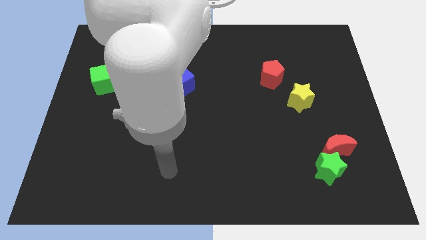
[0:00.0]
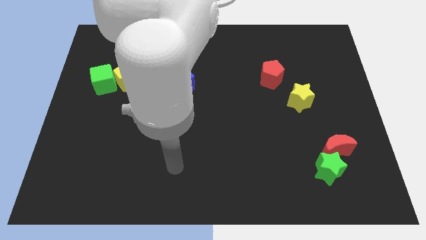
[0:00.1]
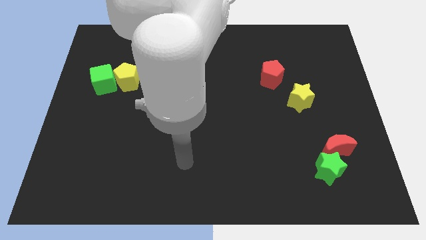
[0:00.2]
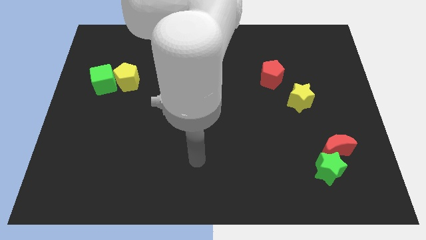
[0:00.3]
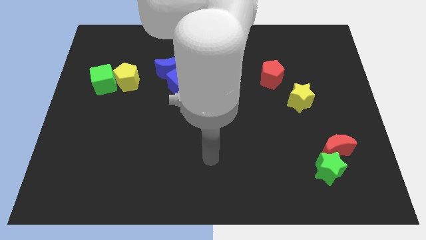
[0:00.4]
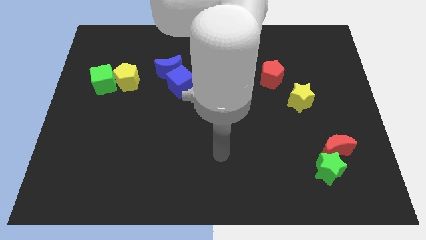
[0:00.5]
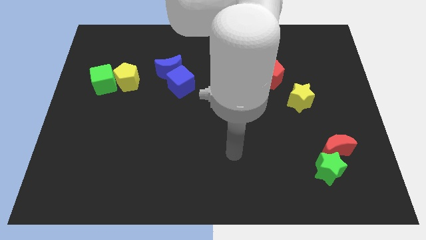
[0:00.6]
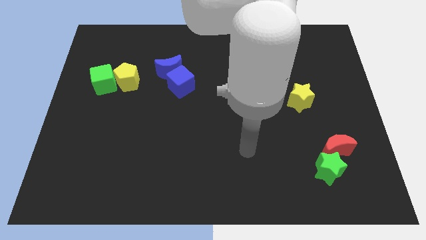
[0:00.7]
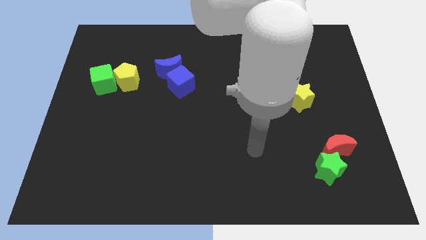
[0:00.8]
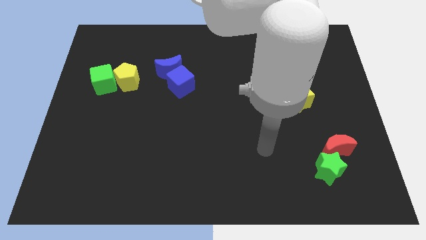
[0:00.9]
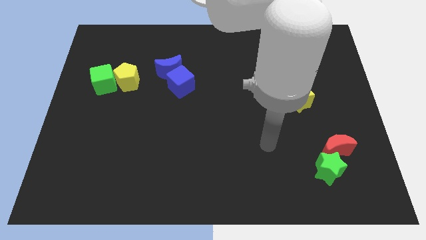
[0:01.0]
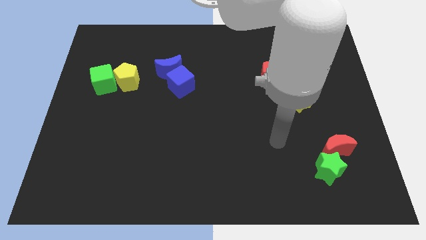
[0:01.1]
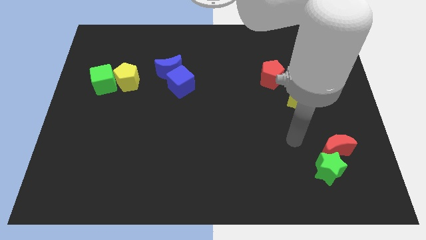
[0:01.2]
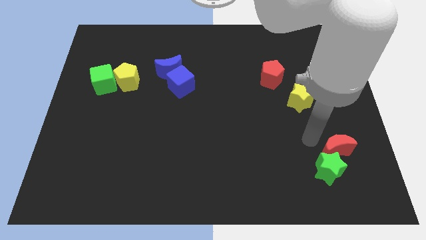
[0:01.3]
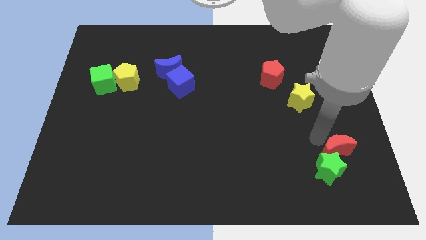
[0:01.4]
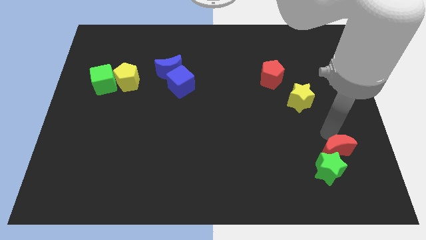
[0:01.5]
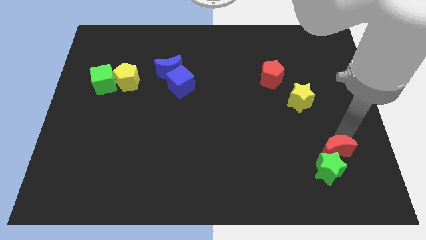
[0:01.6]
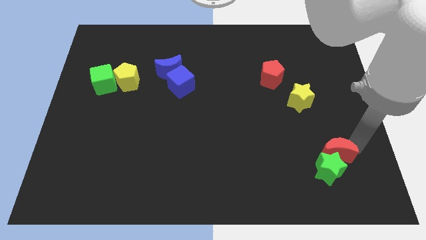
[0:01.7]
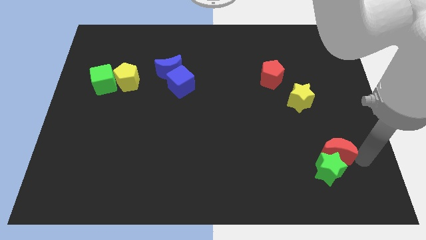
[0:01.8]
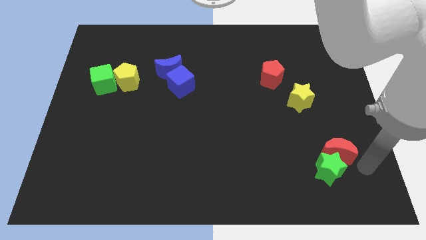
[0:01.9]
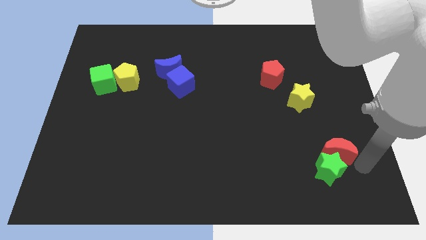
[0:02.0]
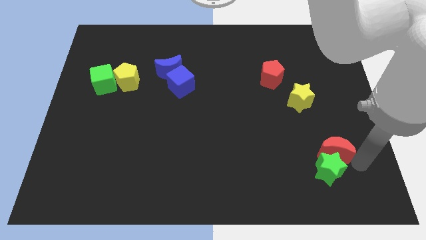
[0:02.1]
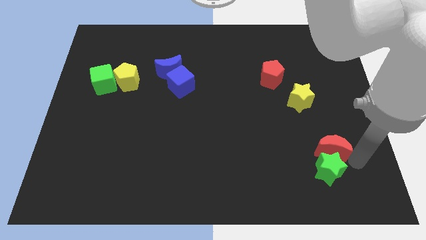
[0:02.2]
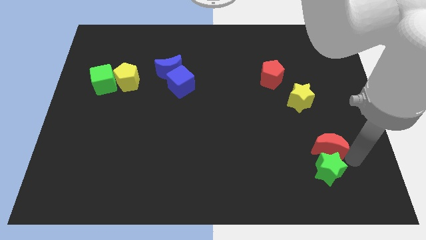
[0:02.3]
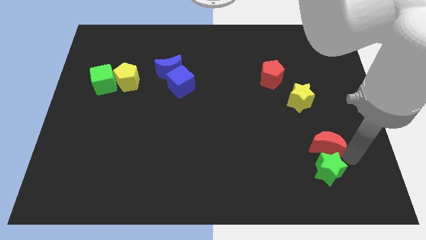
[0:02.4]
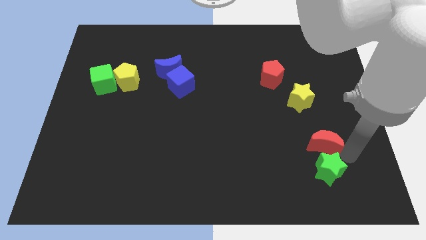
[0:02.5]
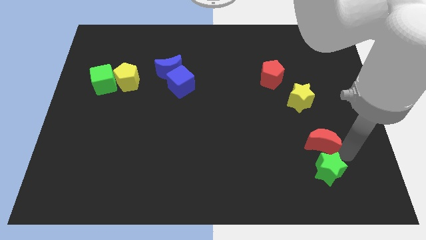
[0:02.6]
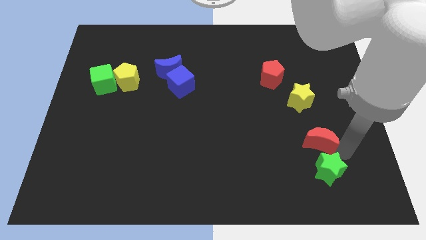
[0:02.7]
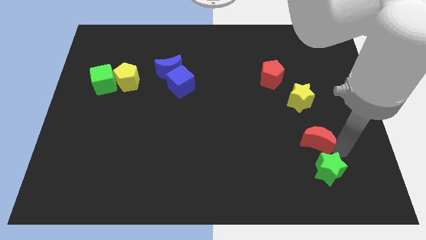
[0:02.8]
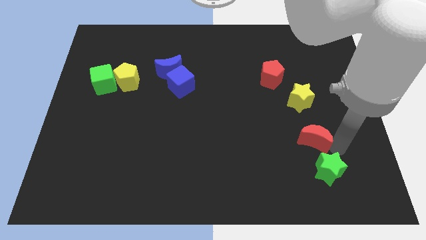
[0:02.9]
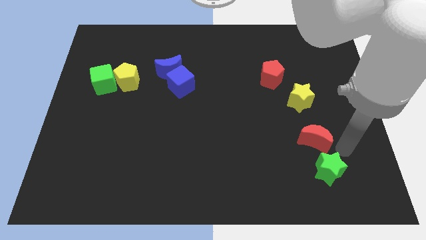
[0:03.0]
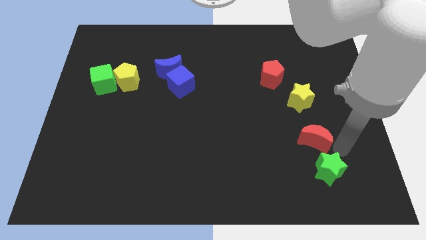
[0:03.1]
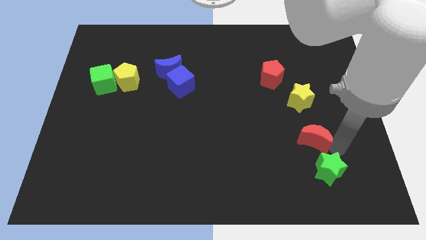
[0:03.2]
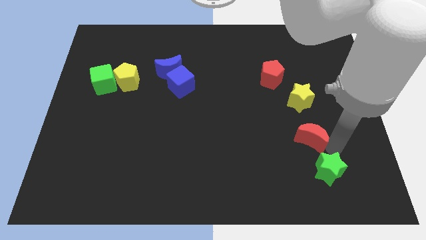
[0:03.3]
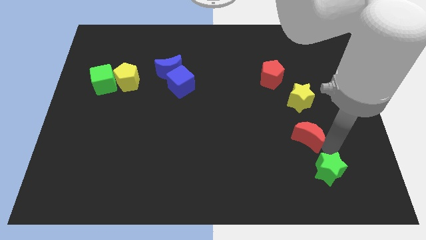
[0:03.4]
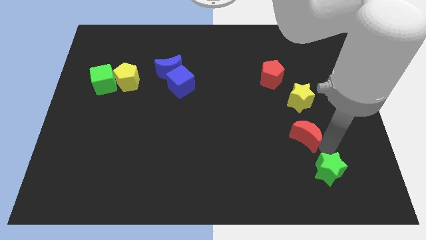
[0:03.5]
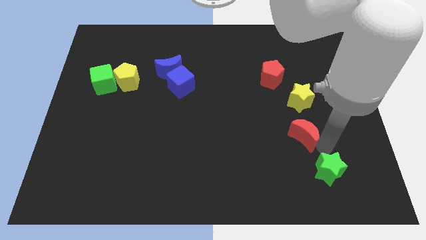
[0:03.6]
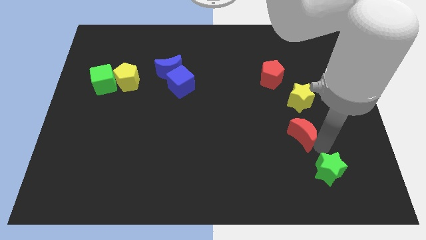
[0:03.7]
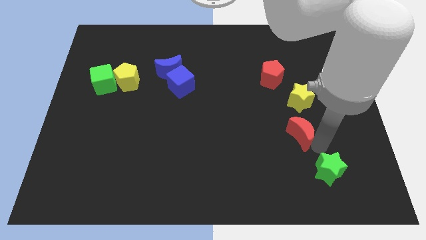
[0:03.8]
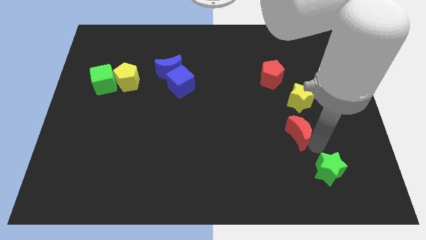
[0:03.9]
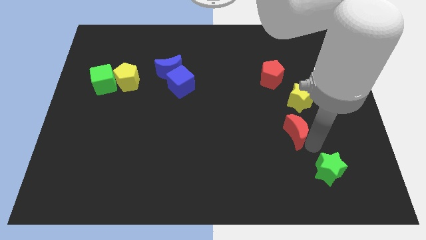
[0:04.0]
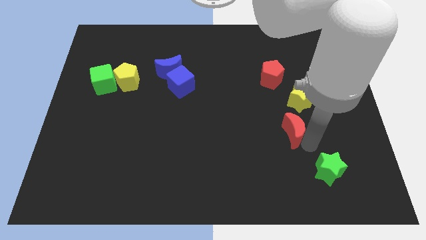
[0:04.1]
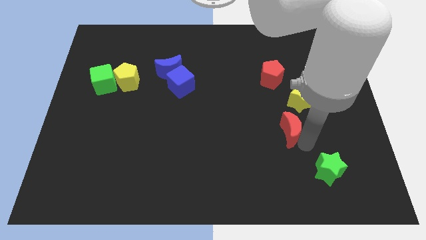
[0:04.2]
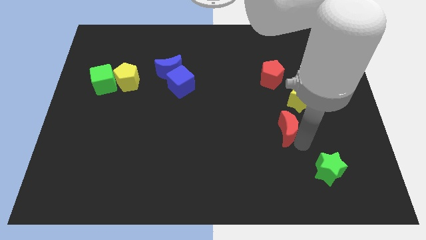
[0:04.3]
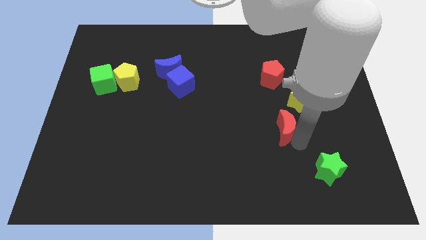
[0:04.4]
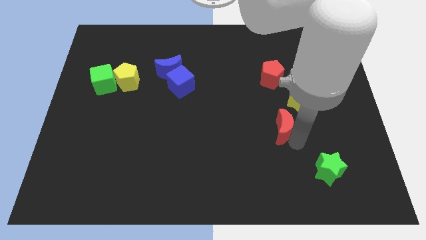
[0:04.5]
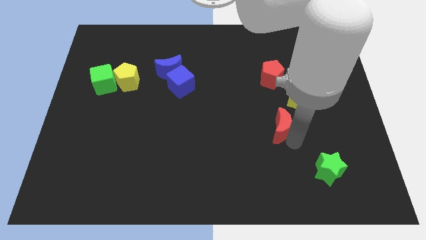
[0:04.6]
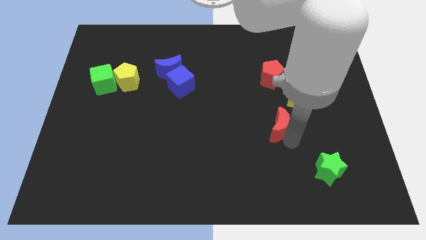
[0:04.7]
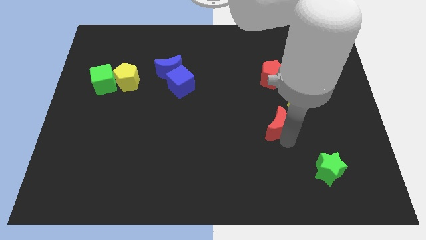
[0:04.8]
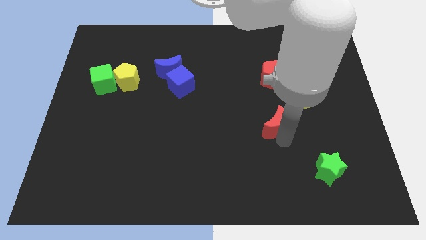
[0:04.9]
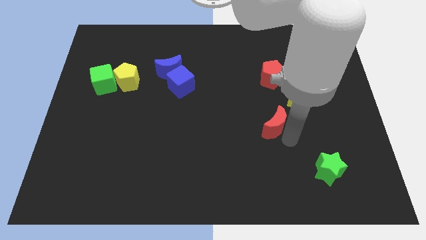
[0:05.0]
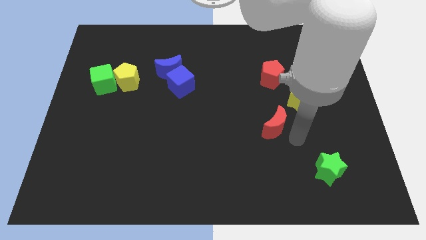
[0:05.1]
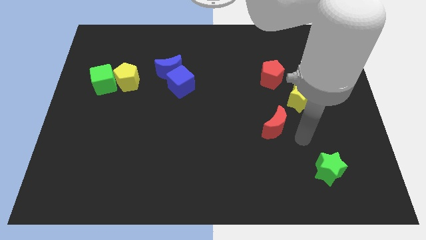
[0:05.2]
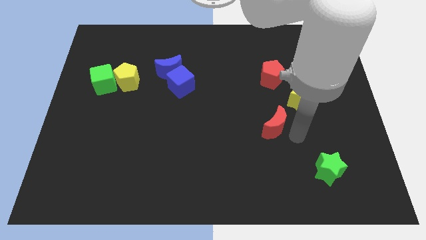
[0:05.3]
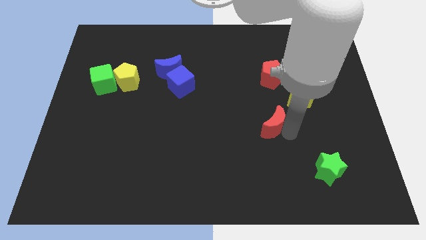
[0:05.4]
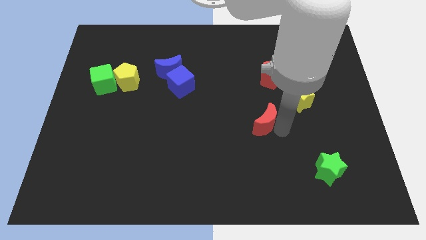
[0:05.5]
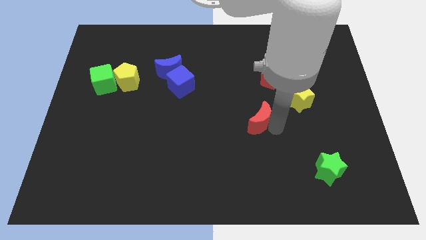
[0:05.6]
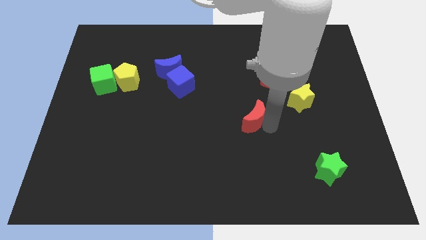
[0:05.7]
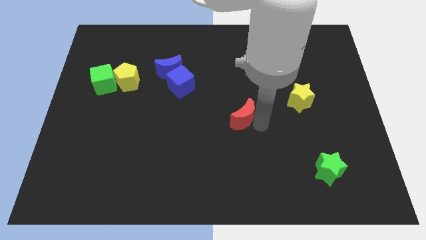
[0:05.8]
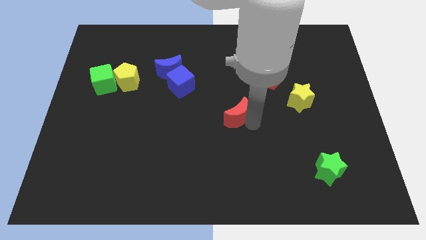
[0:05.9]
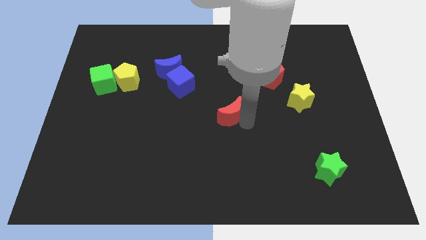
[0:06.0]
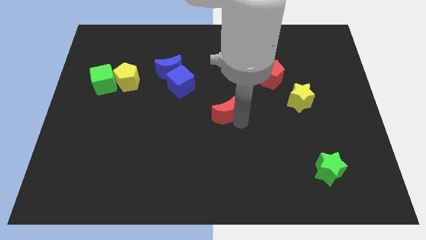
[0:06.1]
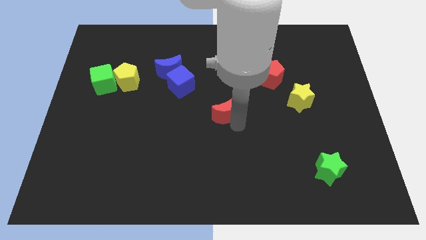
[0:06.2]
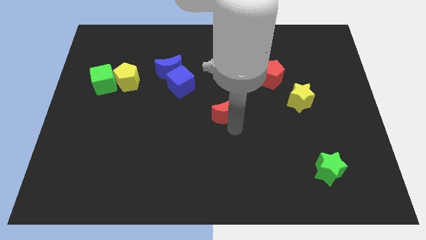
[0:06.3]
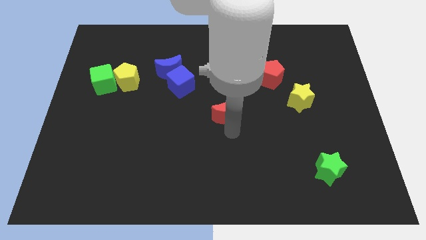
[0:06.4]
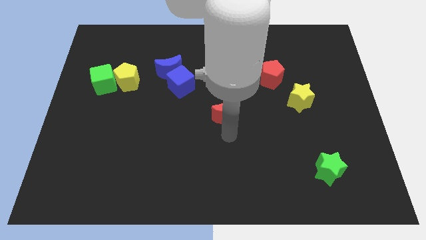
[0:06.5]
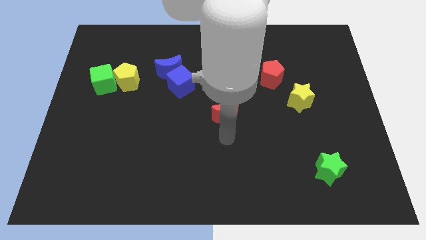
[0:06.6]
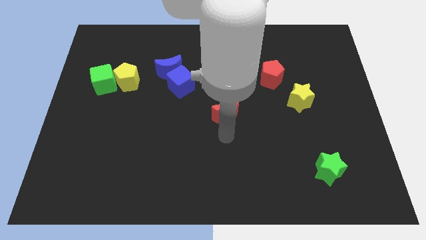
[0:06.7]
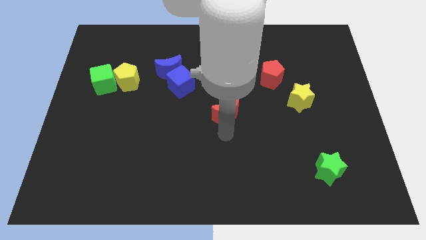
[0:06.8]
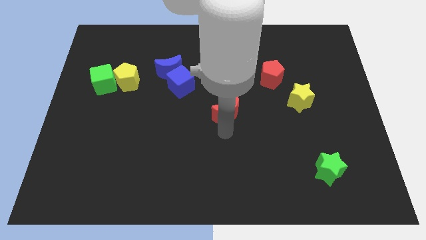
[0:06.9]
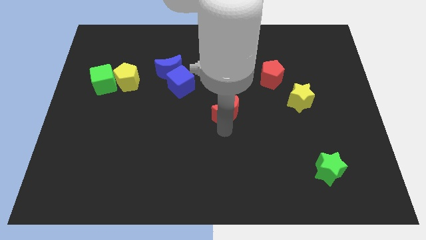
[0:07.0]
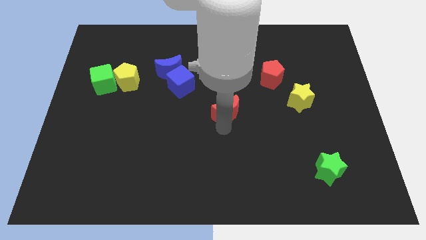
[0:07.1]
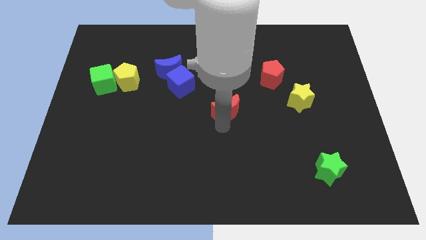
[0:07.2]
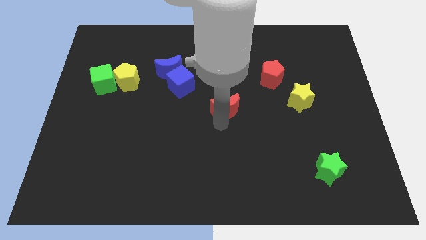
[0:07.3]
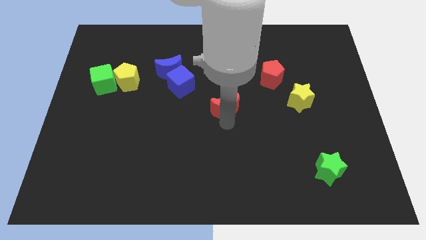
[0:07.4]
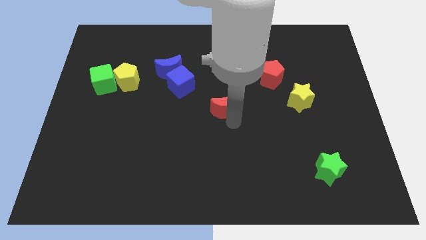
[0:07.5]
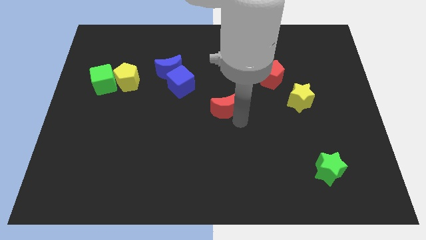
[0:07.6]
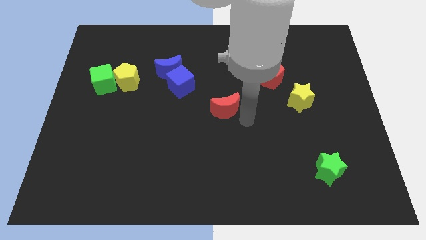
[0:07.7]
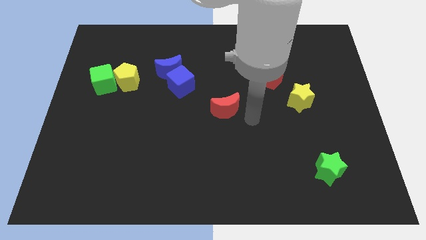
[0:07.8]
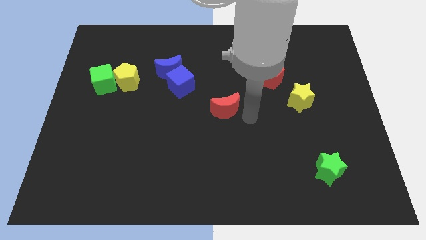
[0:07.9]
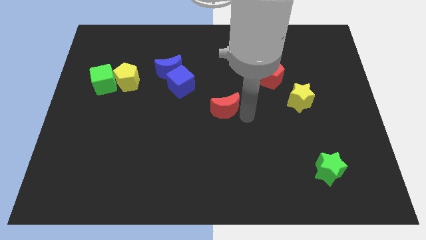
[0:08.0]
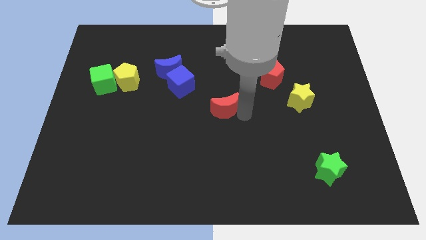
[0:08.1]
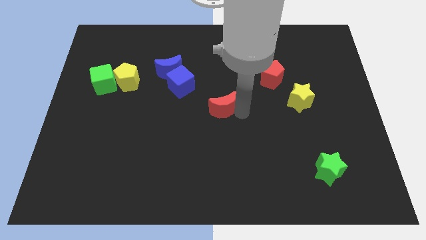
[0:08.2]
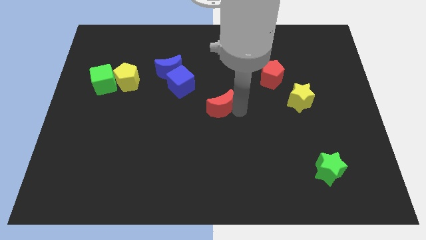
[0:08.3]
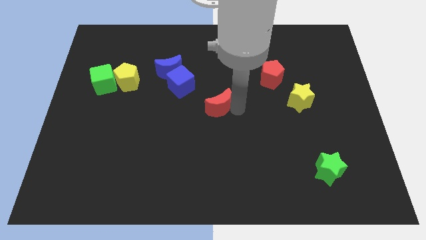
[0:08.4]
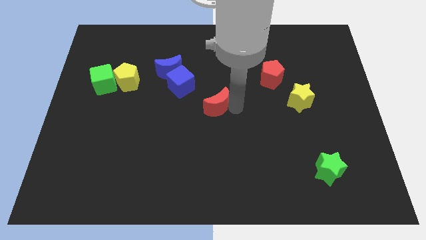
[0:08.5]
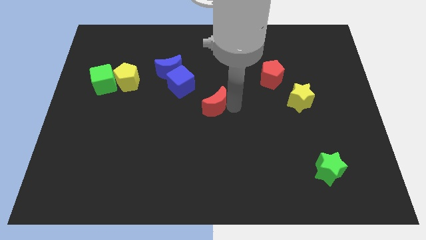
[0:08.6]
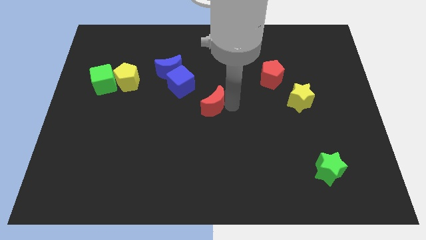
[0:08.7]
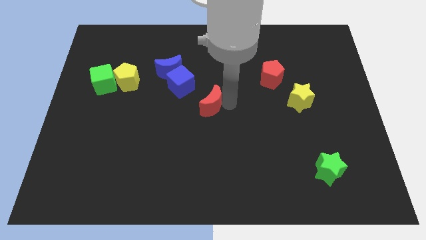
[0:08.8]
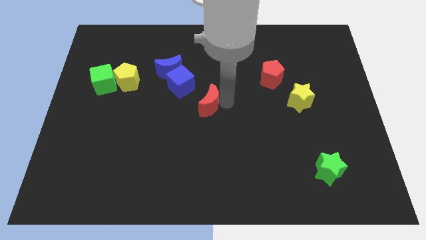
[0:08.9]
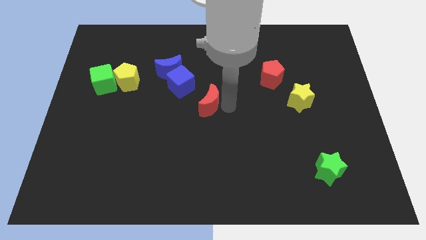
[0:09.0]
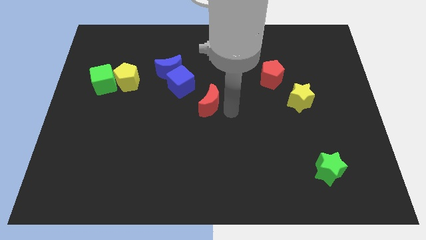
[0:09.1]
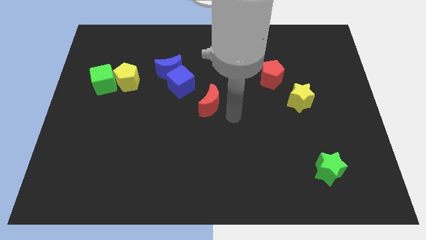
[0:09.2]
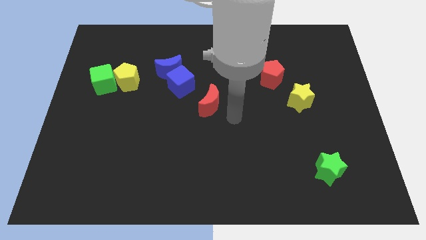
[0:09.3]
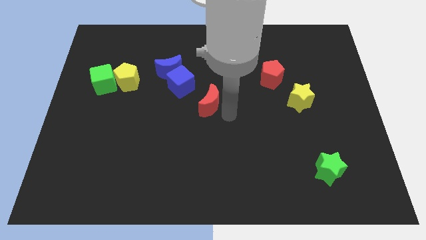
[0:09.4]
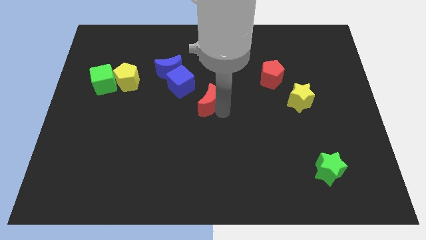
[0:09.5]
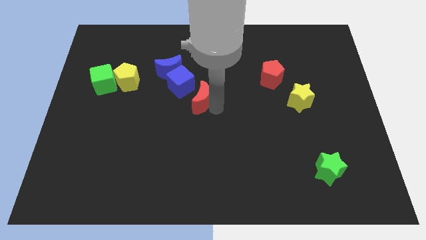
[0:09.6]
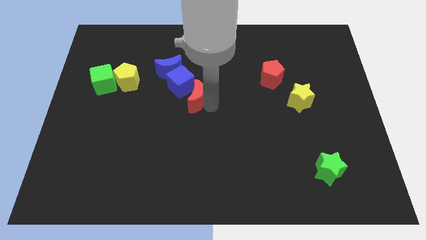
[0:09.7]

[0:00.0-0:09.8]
move the red moon towards the blue cube
